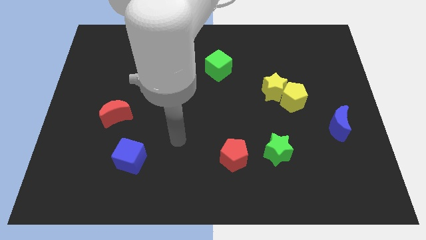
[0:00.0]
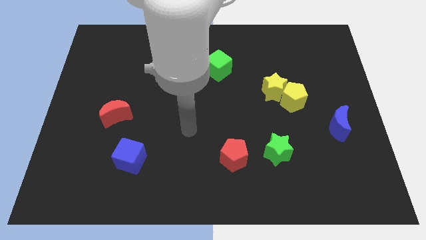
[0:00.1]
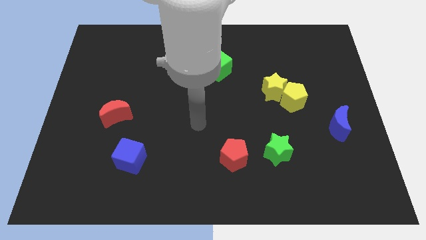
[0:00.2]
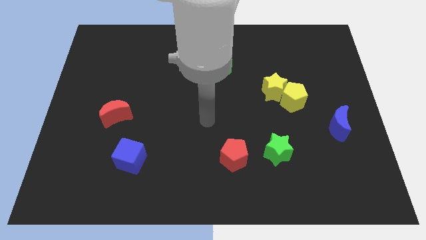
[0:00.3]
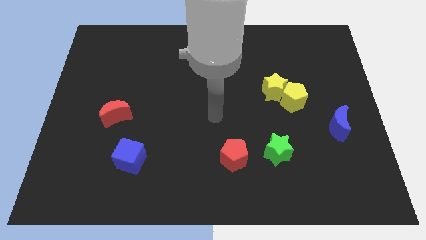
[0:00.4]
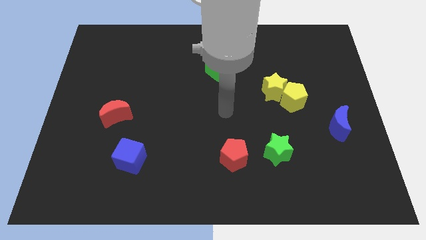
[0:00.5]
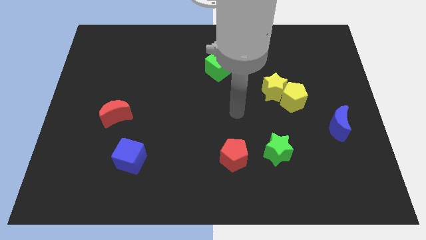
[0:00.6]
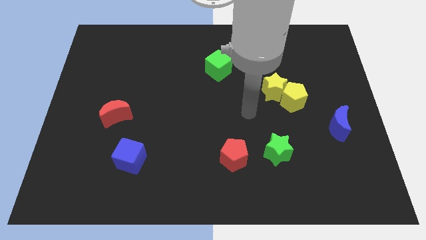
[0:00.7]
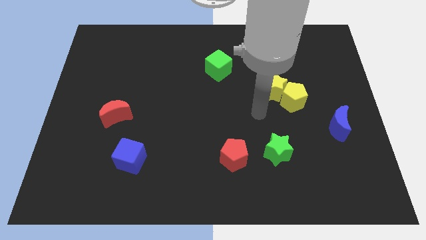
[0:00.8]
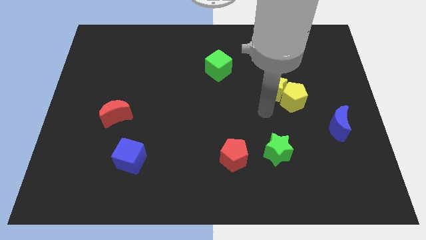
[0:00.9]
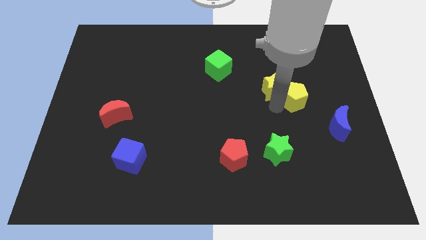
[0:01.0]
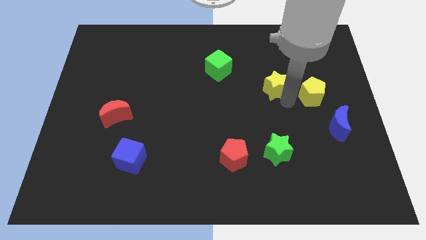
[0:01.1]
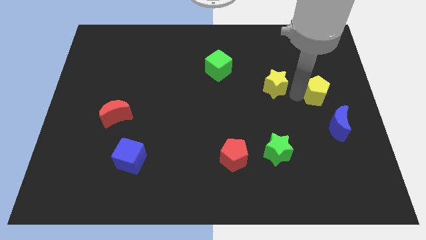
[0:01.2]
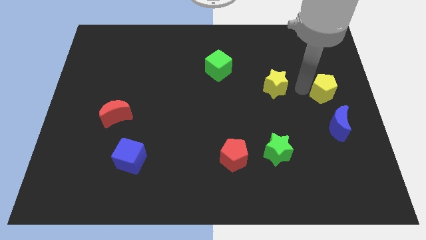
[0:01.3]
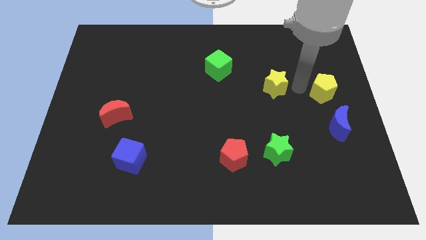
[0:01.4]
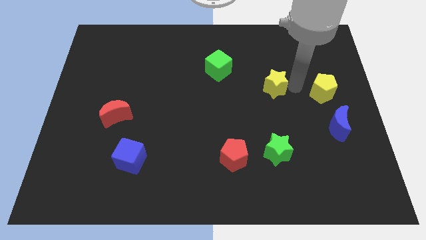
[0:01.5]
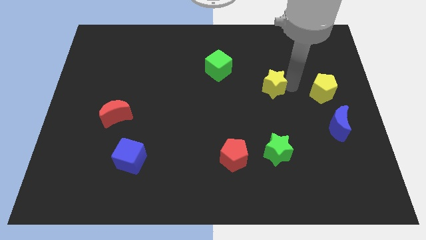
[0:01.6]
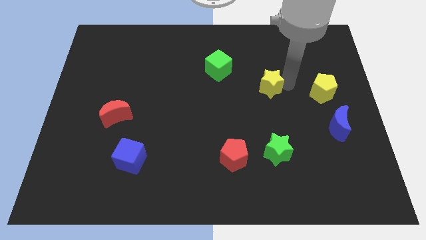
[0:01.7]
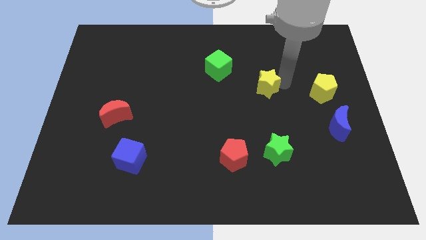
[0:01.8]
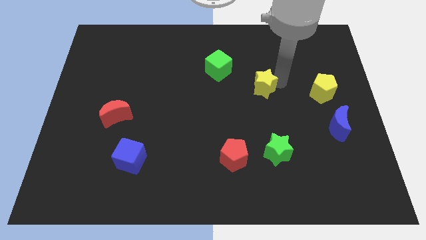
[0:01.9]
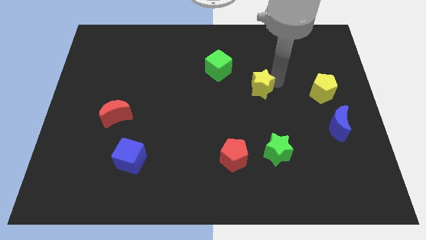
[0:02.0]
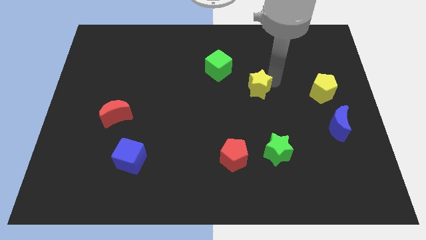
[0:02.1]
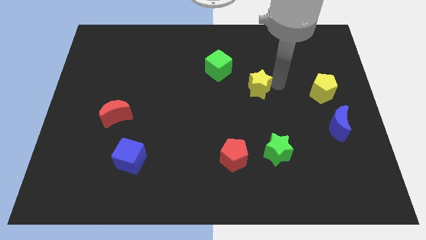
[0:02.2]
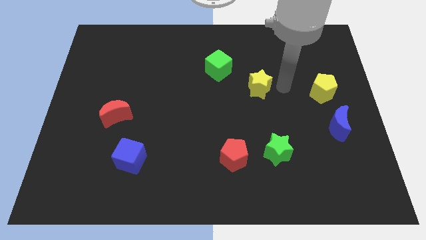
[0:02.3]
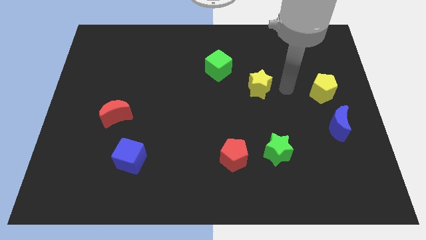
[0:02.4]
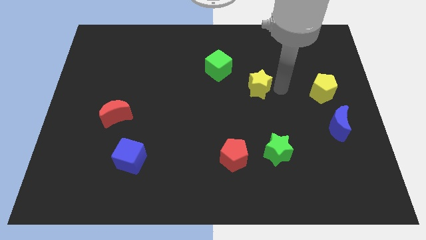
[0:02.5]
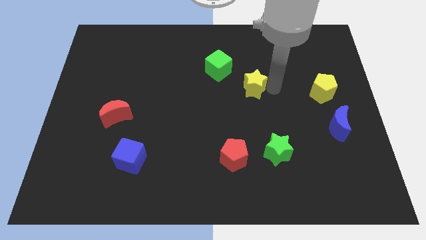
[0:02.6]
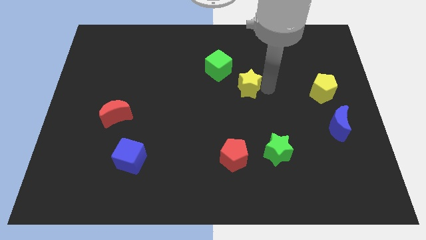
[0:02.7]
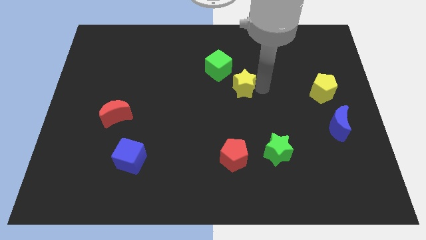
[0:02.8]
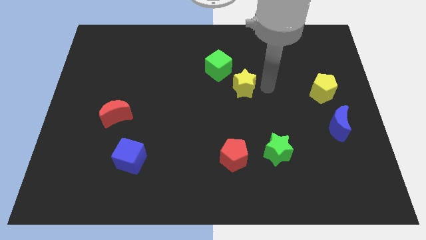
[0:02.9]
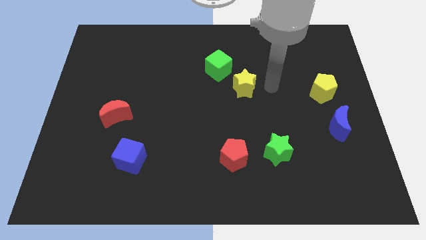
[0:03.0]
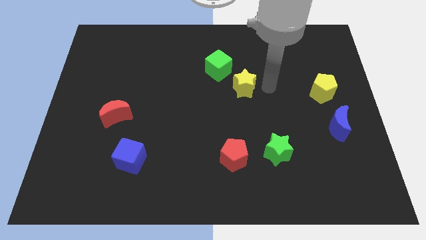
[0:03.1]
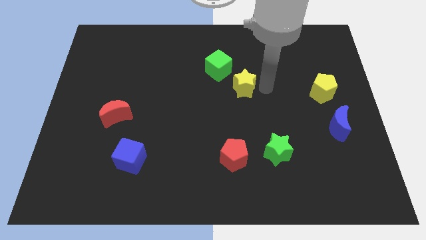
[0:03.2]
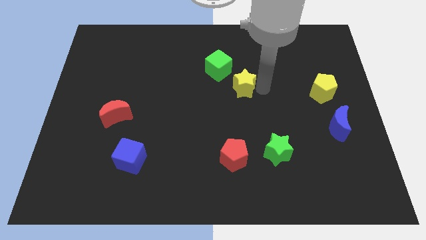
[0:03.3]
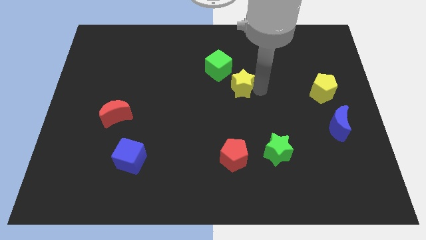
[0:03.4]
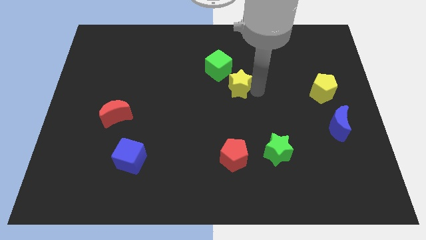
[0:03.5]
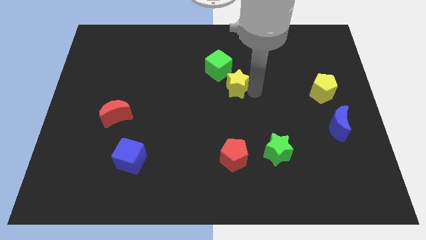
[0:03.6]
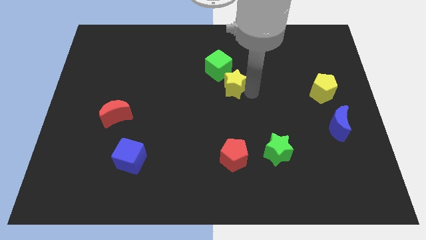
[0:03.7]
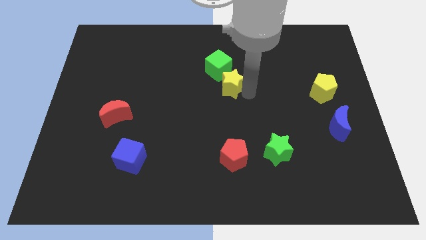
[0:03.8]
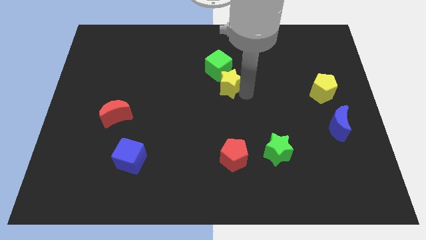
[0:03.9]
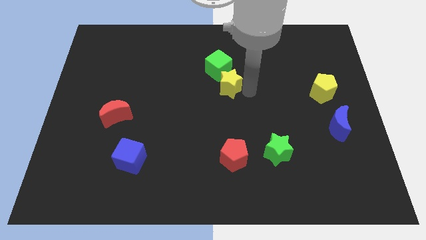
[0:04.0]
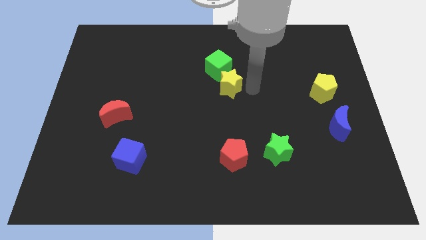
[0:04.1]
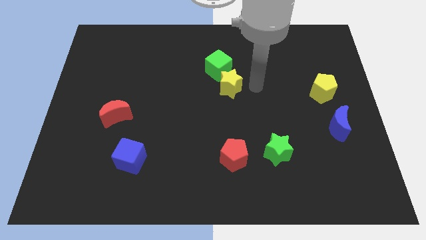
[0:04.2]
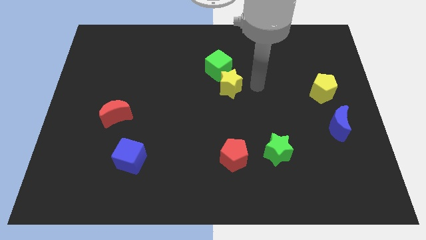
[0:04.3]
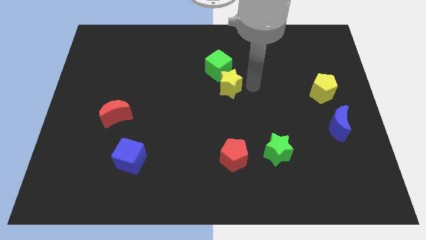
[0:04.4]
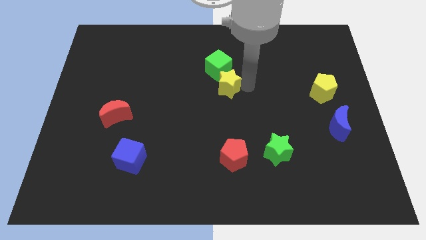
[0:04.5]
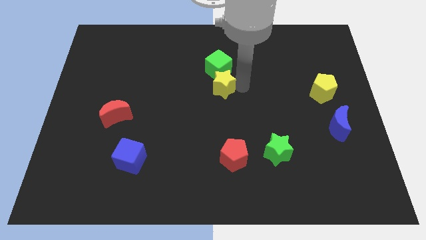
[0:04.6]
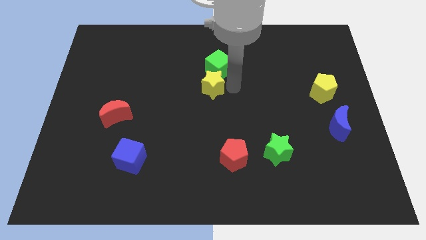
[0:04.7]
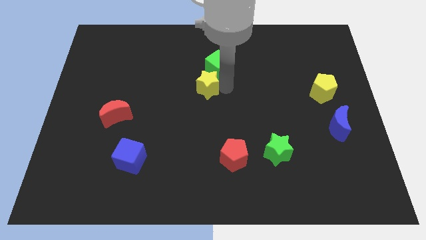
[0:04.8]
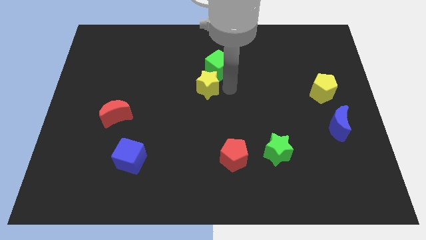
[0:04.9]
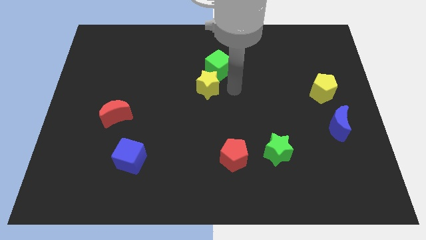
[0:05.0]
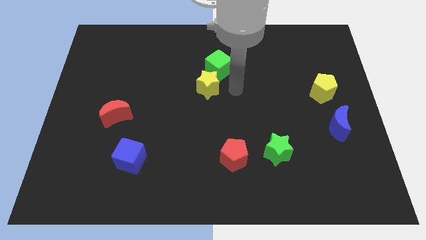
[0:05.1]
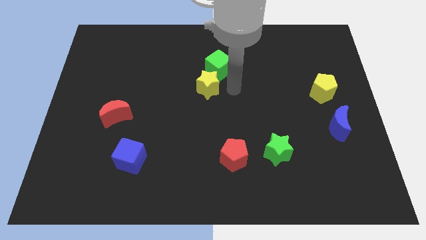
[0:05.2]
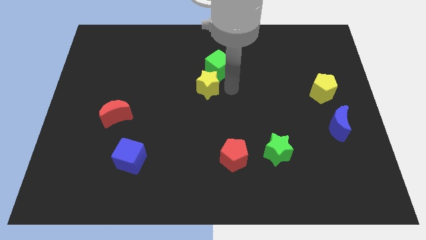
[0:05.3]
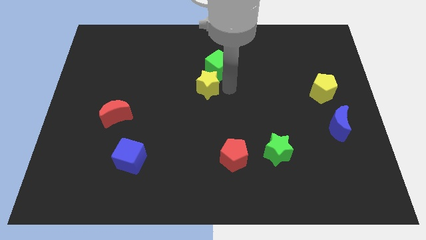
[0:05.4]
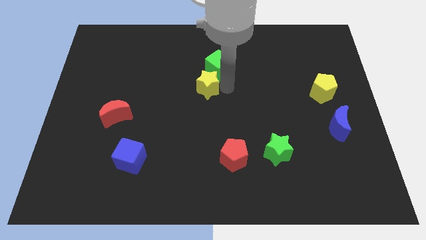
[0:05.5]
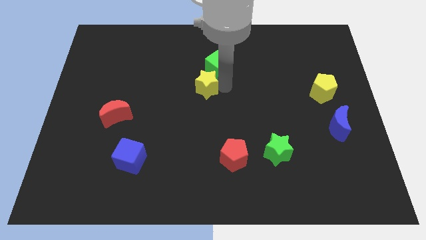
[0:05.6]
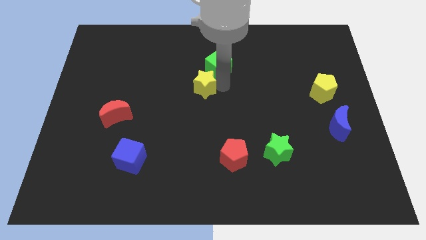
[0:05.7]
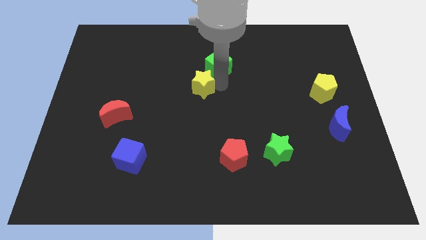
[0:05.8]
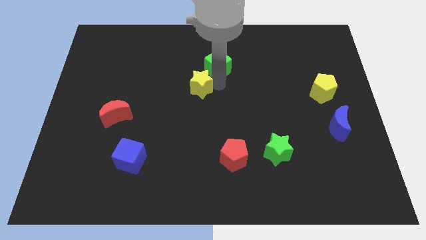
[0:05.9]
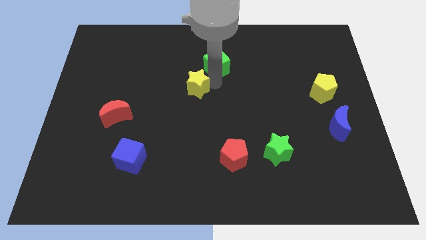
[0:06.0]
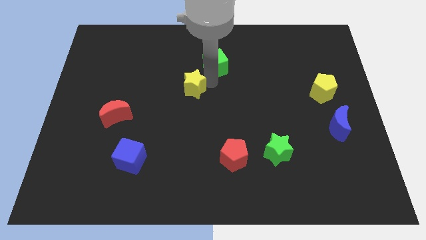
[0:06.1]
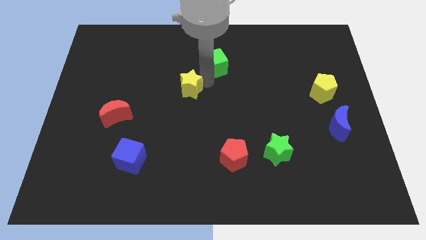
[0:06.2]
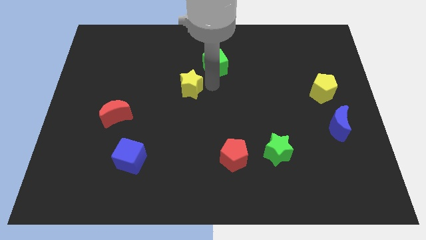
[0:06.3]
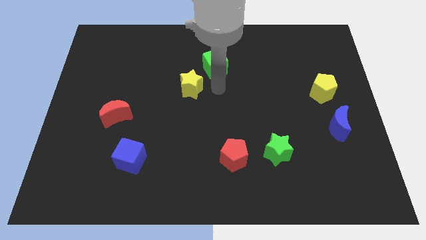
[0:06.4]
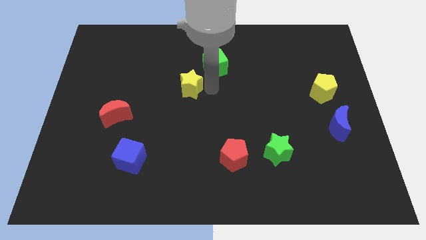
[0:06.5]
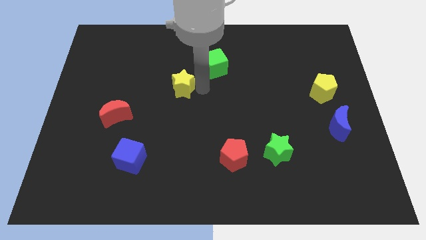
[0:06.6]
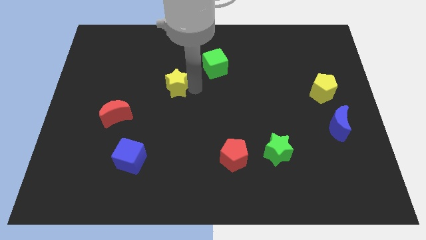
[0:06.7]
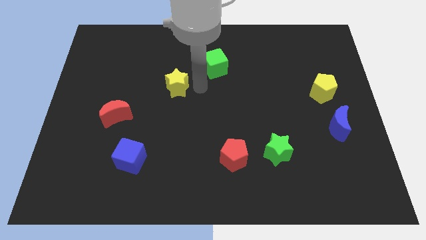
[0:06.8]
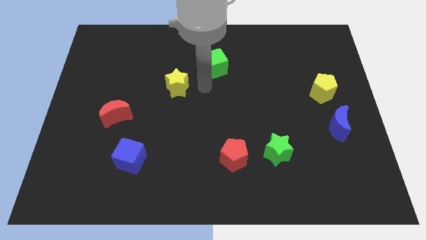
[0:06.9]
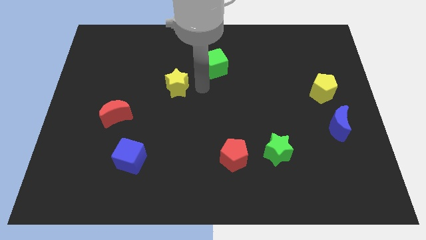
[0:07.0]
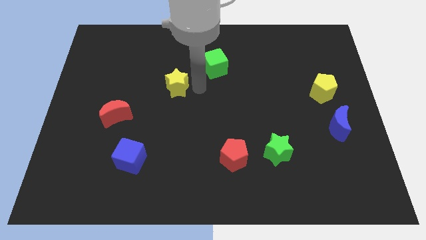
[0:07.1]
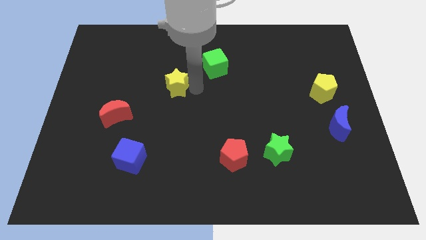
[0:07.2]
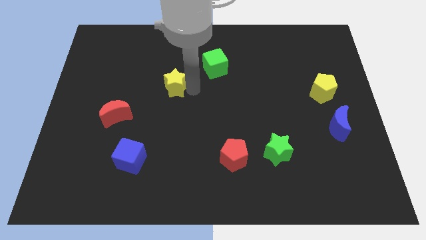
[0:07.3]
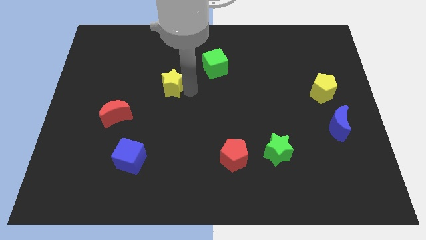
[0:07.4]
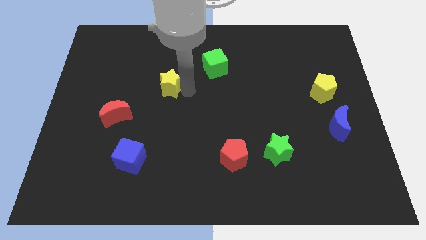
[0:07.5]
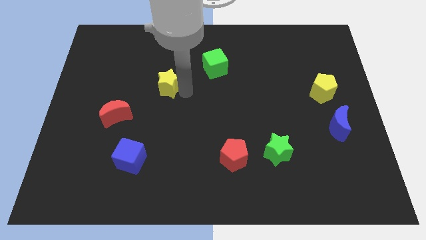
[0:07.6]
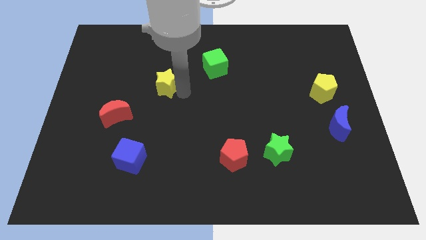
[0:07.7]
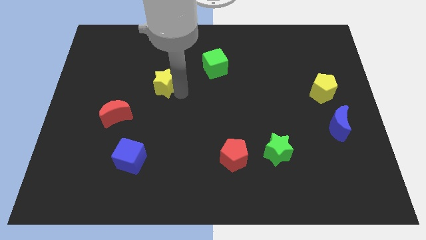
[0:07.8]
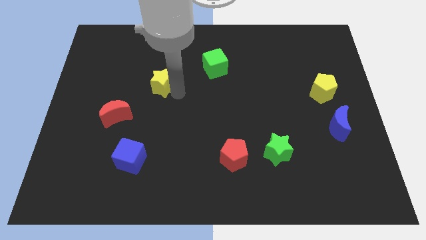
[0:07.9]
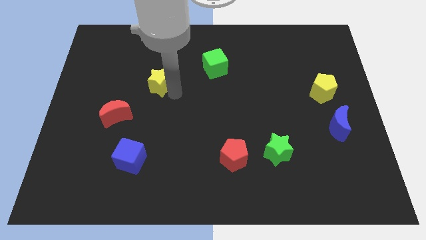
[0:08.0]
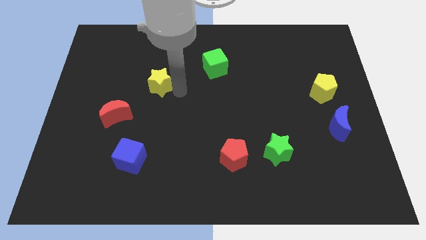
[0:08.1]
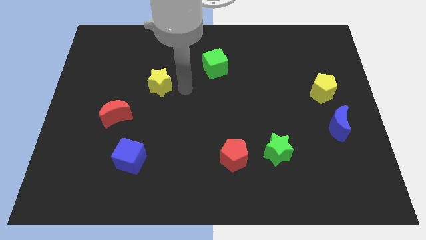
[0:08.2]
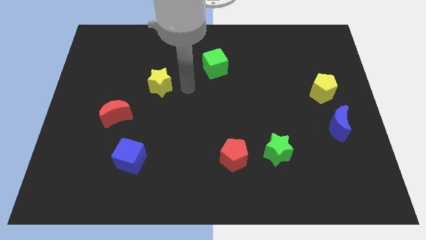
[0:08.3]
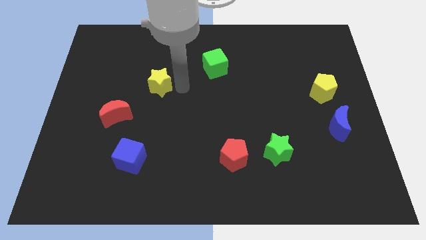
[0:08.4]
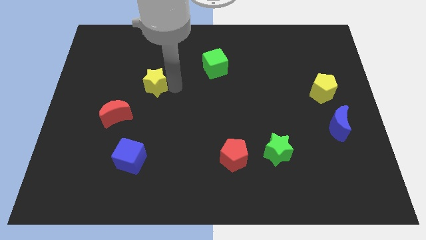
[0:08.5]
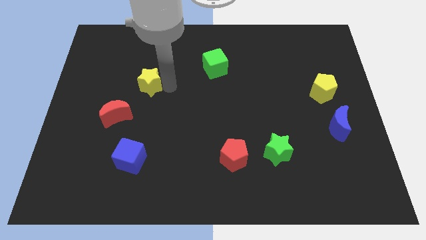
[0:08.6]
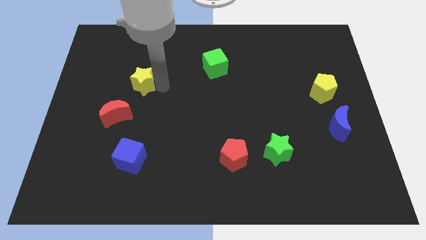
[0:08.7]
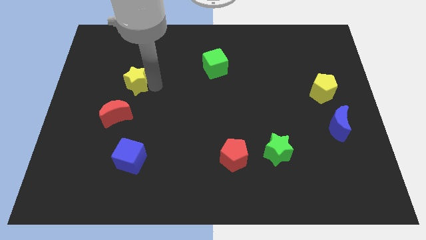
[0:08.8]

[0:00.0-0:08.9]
push the yellow star to the top of the red moon
